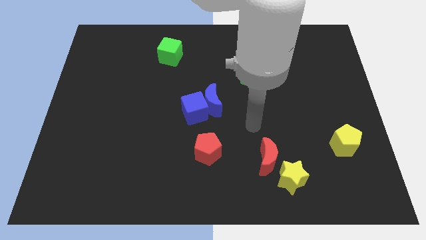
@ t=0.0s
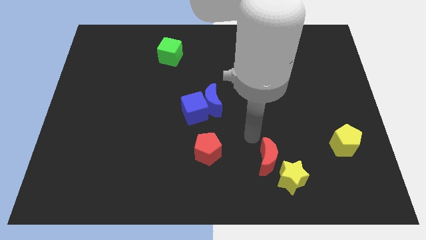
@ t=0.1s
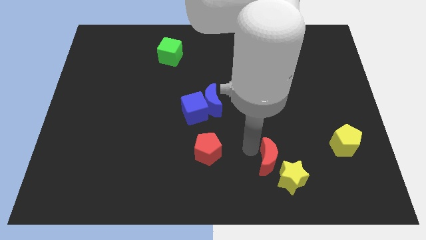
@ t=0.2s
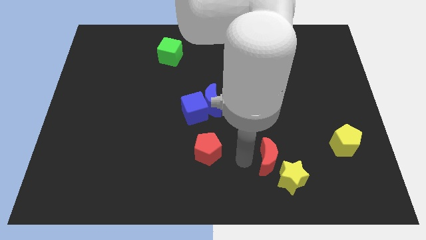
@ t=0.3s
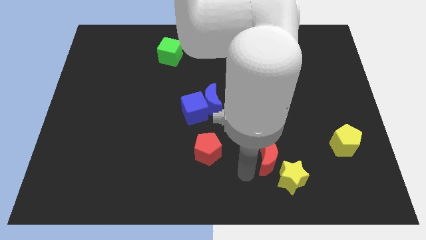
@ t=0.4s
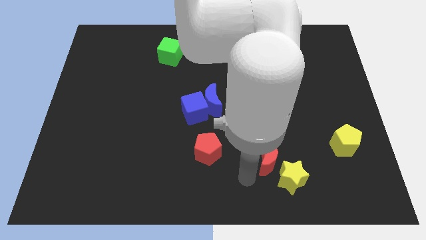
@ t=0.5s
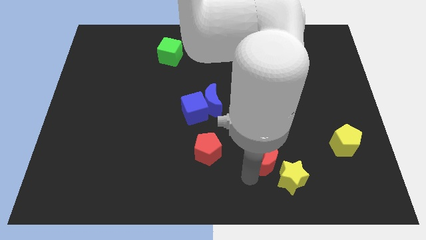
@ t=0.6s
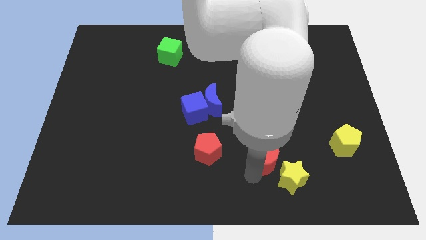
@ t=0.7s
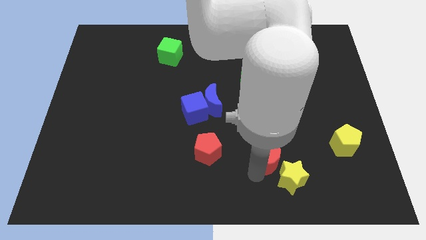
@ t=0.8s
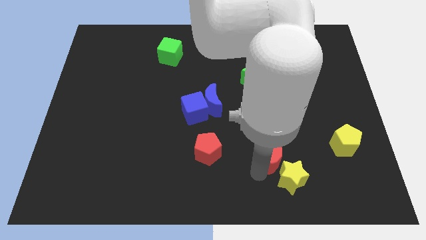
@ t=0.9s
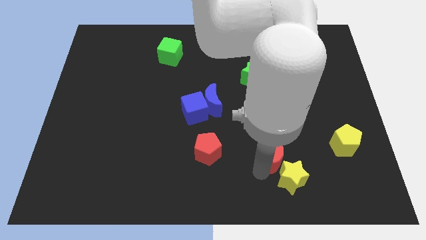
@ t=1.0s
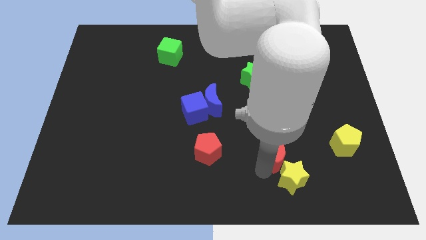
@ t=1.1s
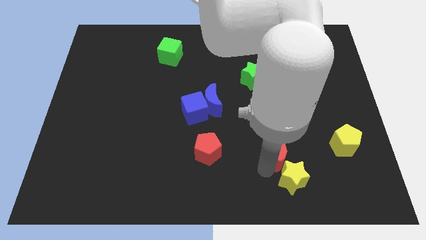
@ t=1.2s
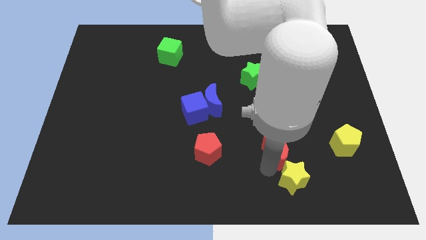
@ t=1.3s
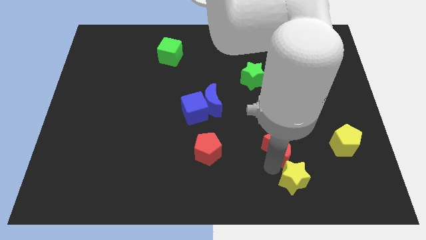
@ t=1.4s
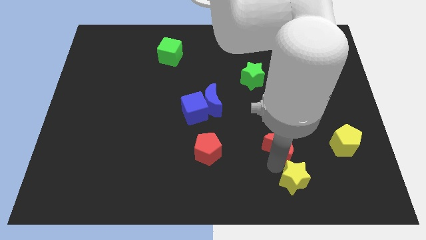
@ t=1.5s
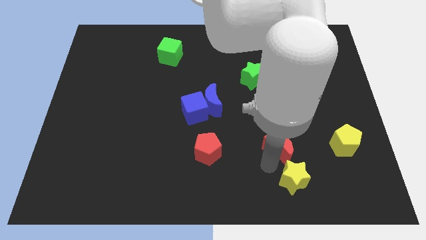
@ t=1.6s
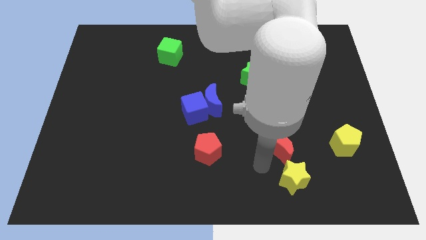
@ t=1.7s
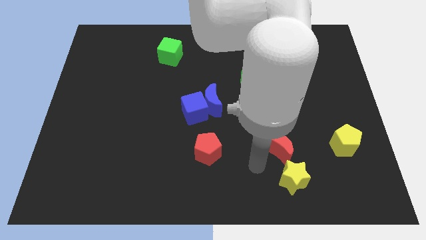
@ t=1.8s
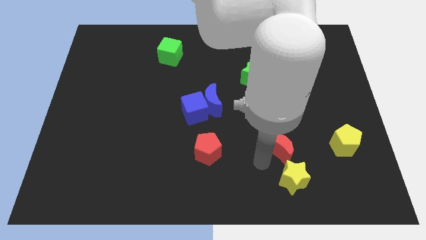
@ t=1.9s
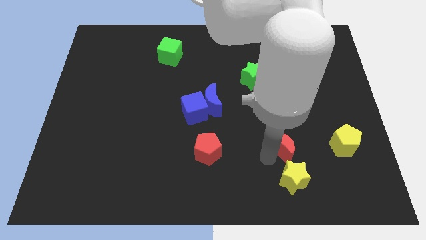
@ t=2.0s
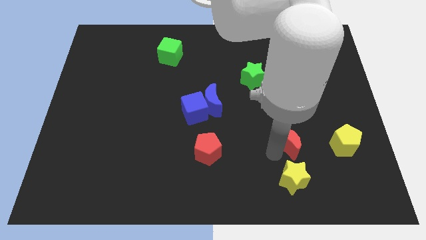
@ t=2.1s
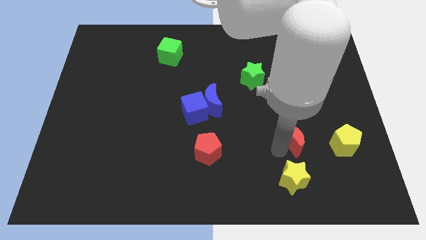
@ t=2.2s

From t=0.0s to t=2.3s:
slide the red moon a little diagonally up and to the right

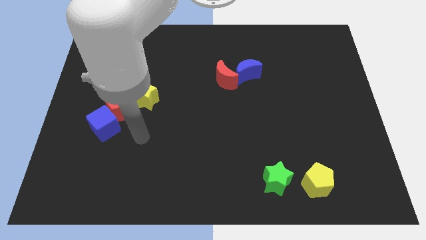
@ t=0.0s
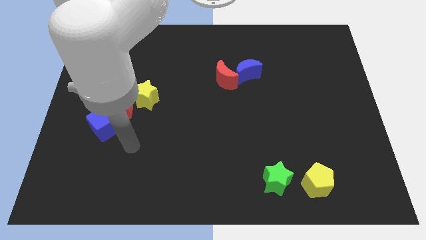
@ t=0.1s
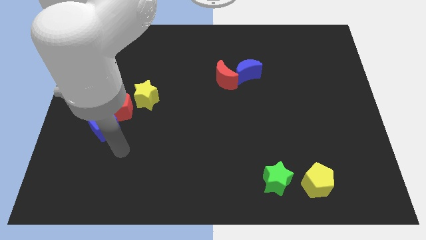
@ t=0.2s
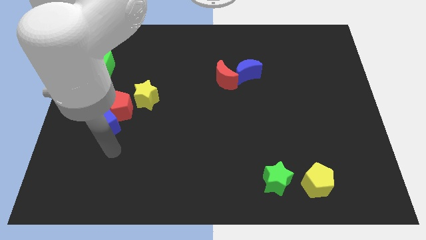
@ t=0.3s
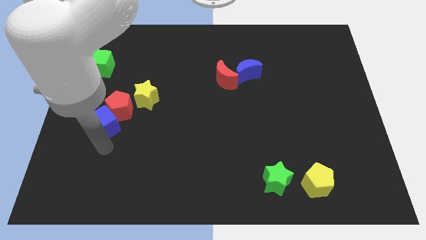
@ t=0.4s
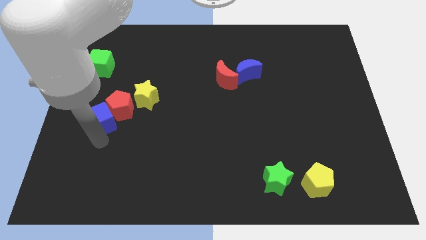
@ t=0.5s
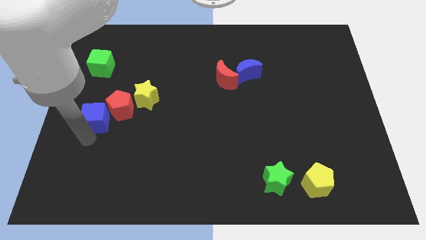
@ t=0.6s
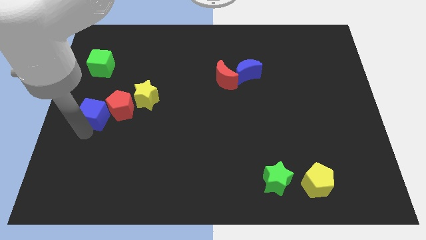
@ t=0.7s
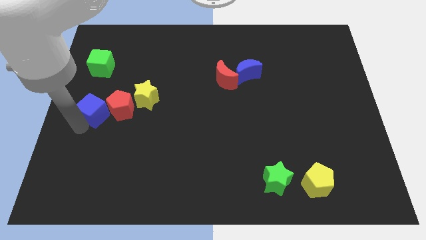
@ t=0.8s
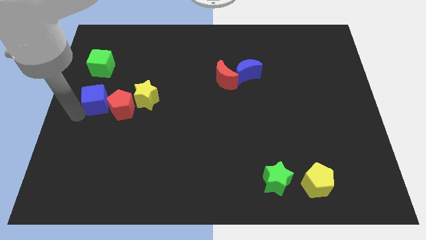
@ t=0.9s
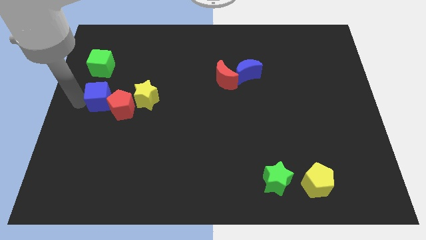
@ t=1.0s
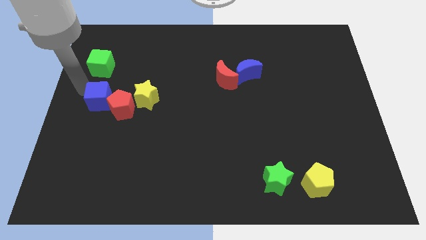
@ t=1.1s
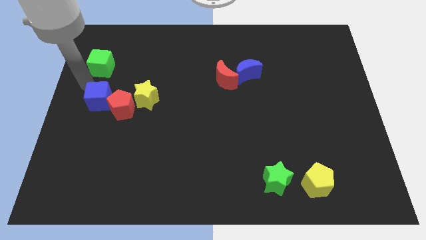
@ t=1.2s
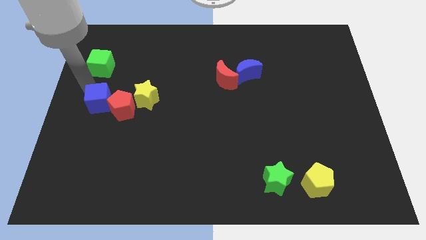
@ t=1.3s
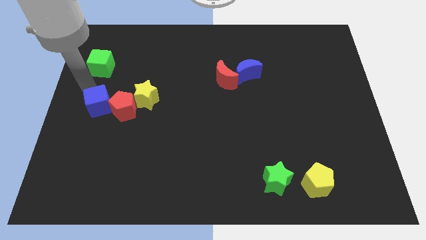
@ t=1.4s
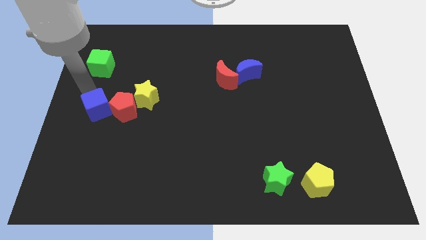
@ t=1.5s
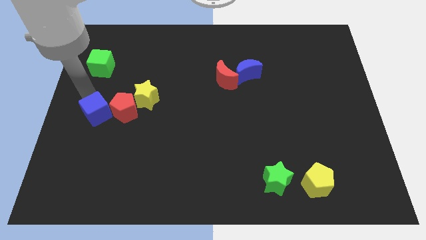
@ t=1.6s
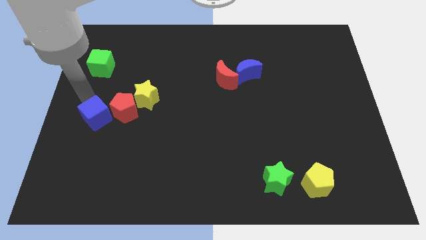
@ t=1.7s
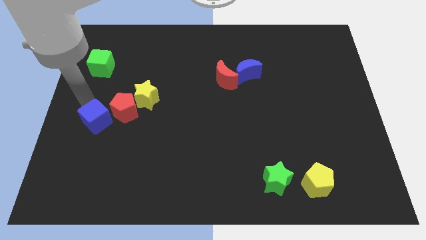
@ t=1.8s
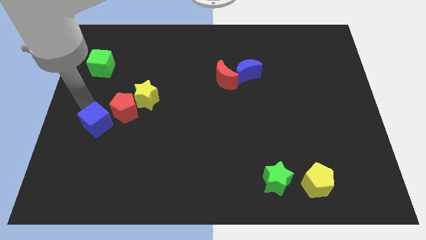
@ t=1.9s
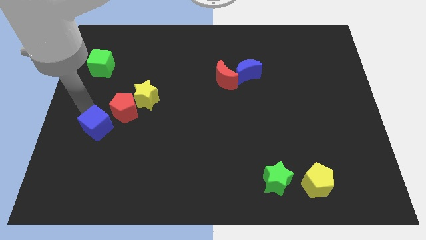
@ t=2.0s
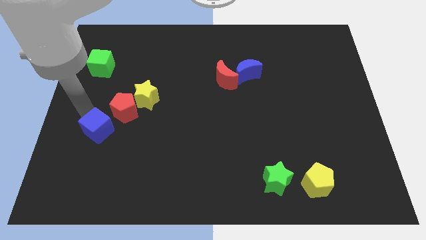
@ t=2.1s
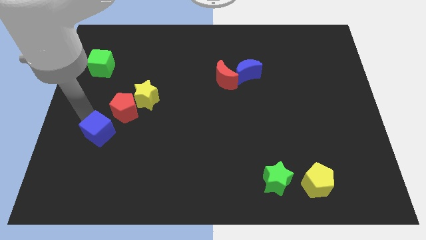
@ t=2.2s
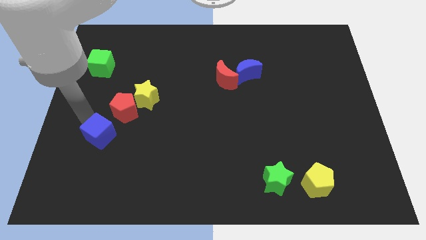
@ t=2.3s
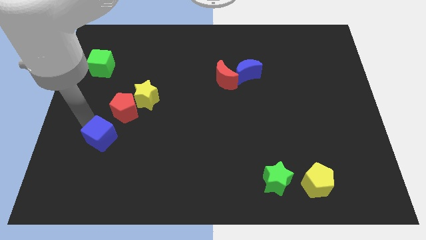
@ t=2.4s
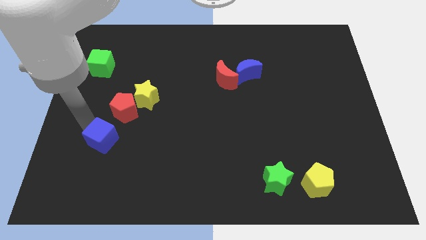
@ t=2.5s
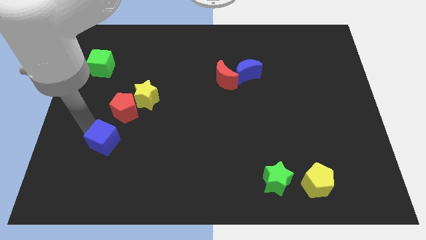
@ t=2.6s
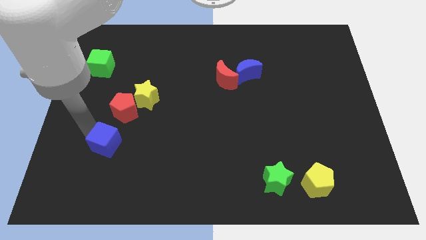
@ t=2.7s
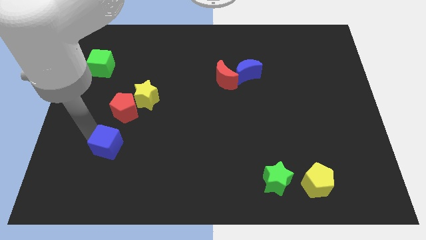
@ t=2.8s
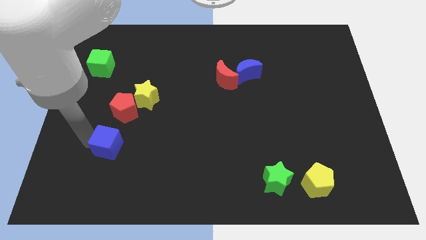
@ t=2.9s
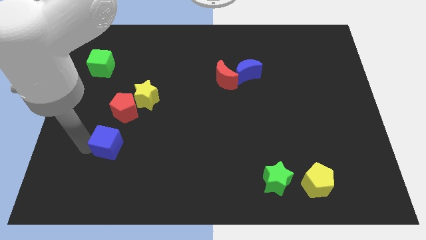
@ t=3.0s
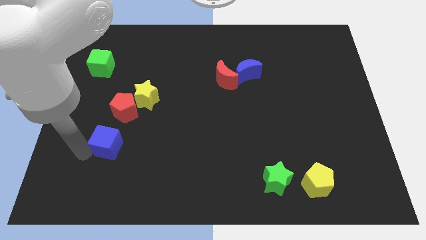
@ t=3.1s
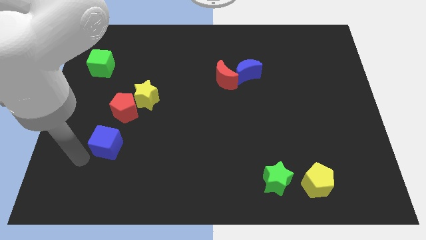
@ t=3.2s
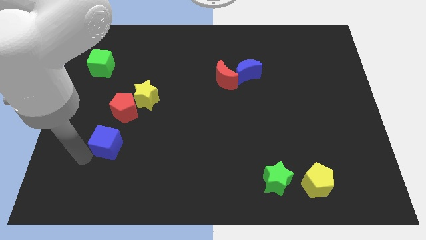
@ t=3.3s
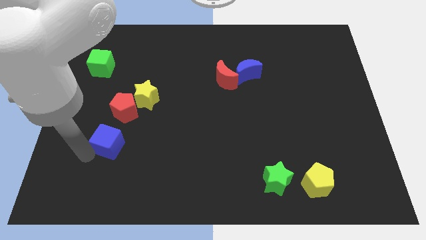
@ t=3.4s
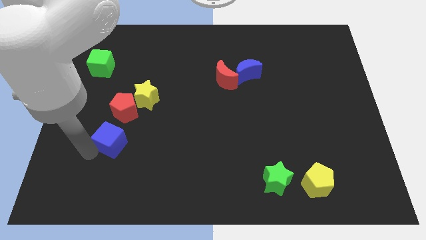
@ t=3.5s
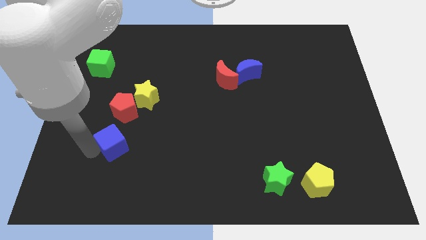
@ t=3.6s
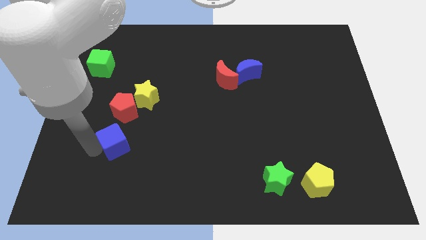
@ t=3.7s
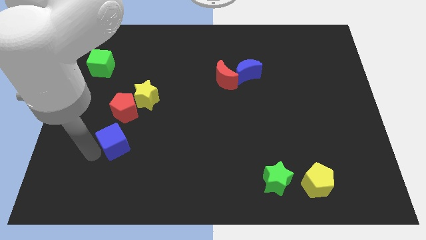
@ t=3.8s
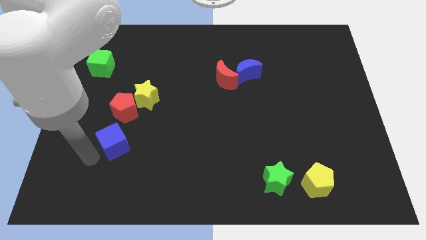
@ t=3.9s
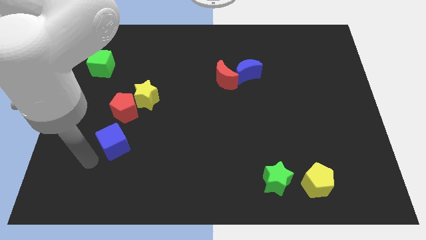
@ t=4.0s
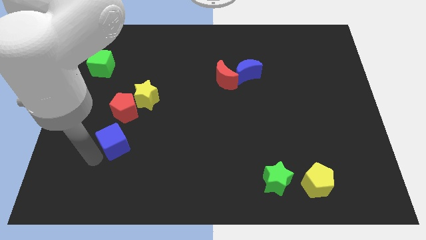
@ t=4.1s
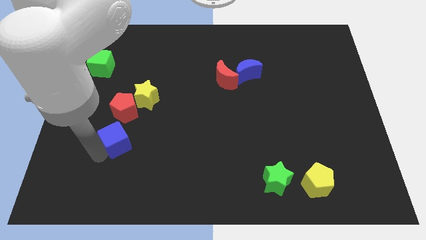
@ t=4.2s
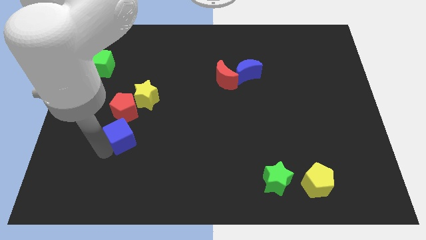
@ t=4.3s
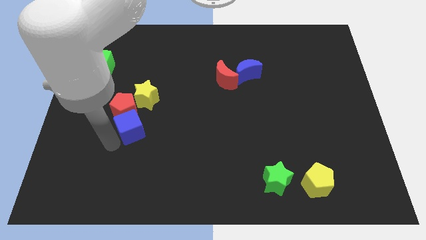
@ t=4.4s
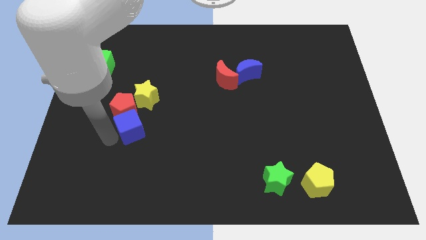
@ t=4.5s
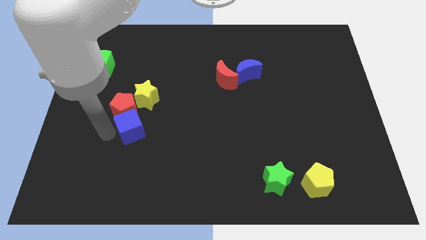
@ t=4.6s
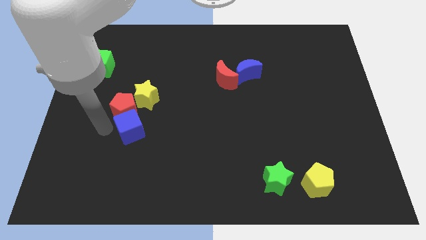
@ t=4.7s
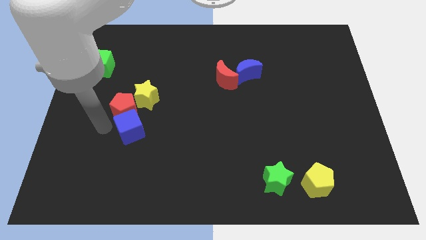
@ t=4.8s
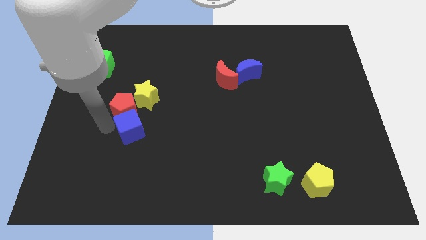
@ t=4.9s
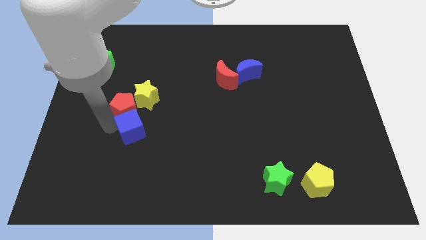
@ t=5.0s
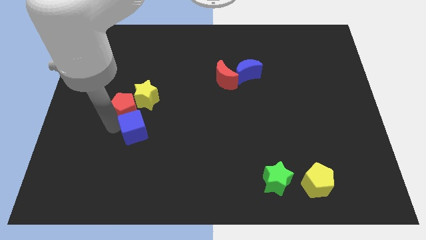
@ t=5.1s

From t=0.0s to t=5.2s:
slide the blue cube a bit to the right

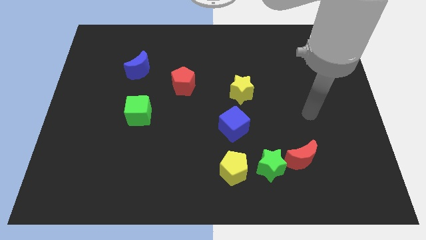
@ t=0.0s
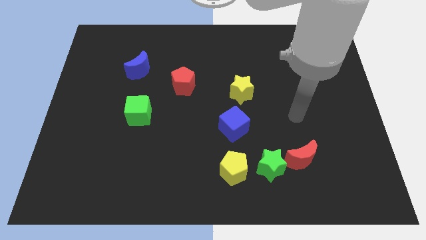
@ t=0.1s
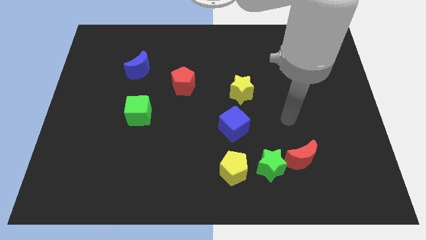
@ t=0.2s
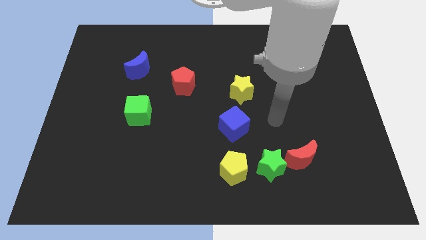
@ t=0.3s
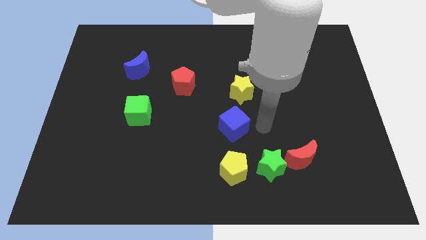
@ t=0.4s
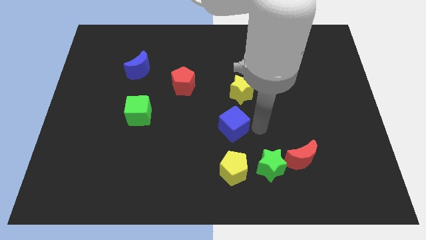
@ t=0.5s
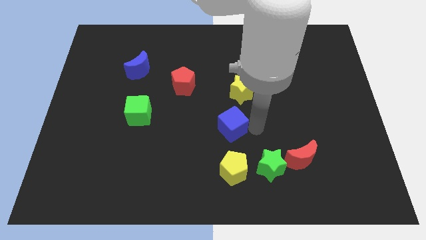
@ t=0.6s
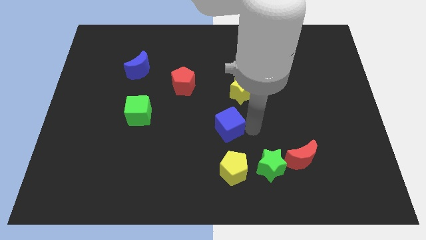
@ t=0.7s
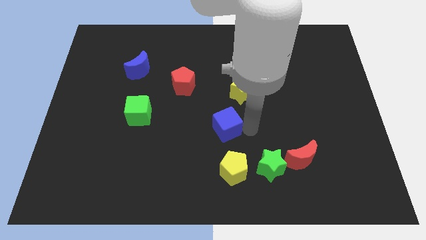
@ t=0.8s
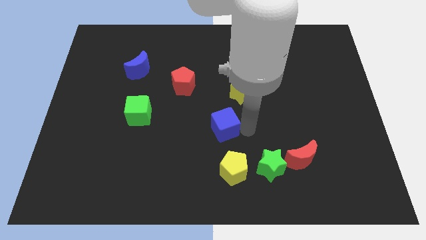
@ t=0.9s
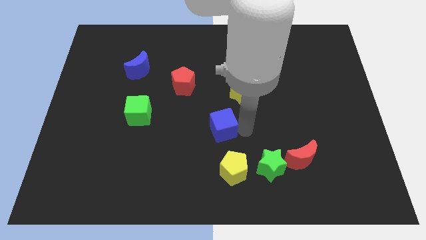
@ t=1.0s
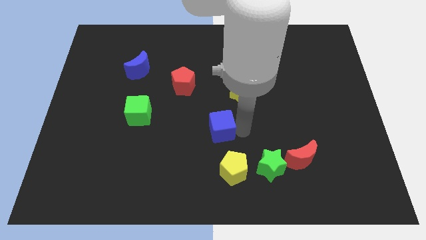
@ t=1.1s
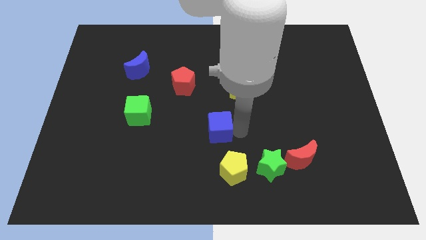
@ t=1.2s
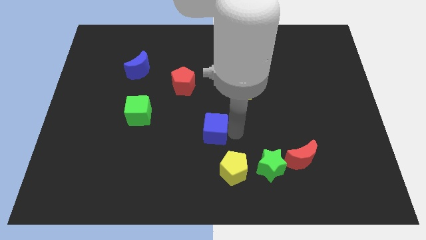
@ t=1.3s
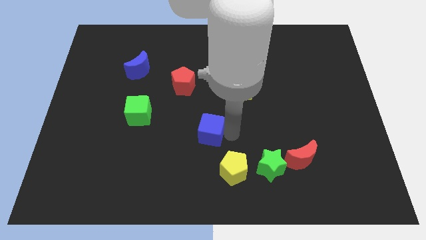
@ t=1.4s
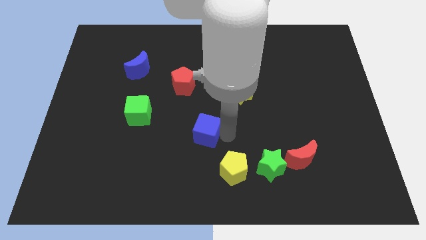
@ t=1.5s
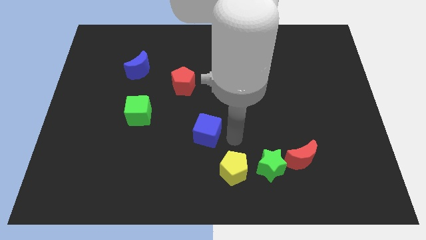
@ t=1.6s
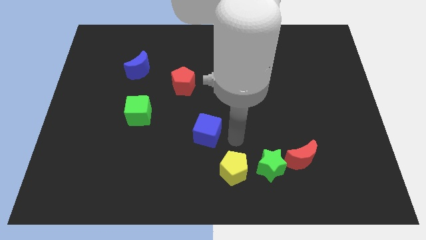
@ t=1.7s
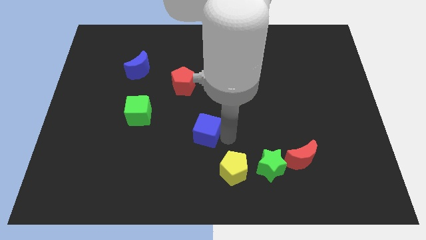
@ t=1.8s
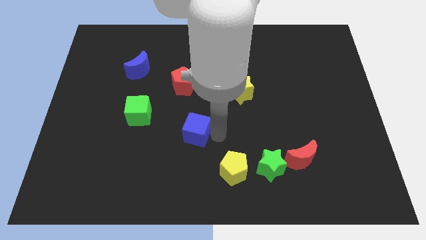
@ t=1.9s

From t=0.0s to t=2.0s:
push the blue cube to the left a little bit
